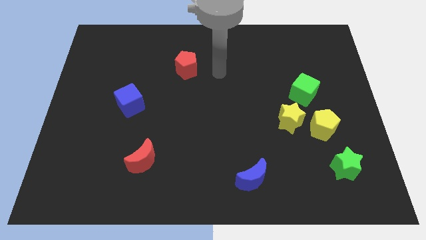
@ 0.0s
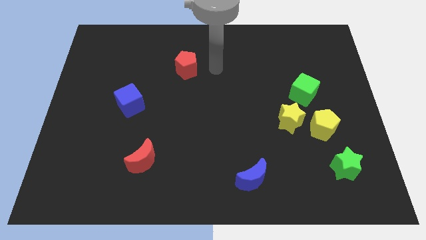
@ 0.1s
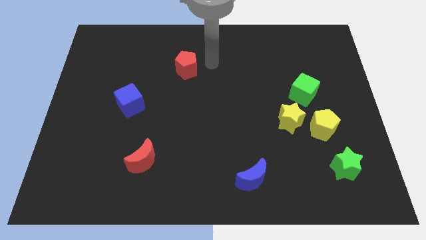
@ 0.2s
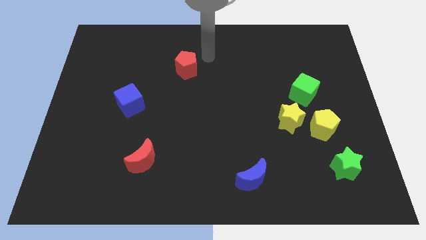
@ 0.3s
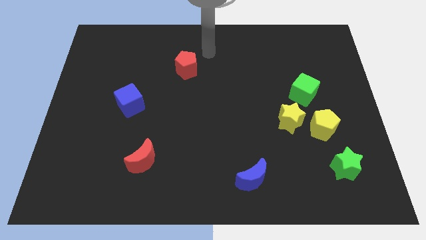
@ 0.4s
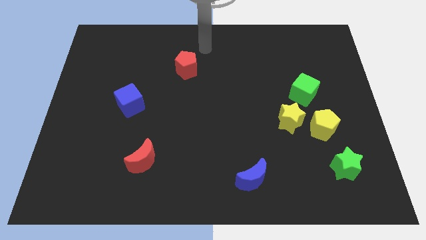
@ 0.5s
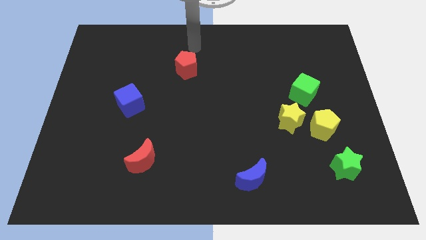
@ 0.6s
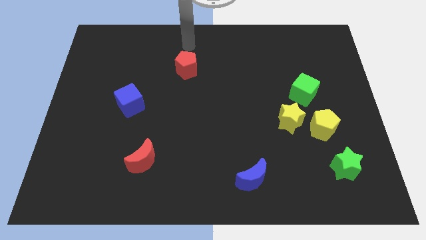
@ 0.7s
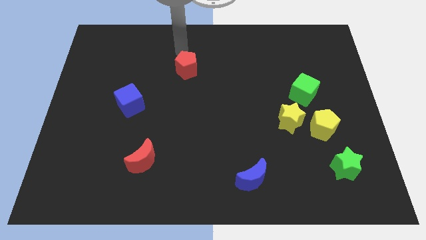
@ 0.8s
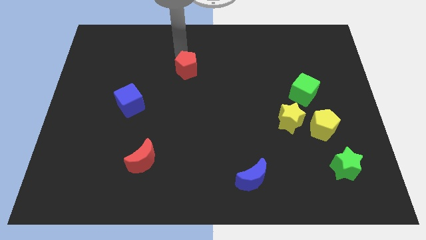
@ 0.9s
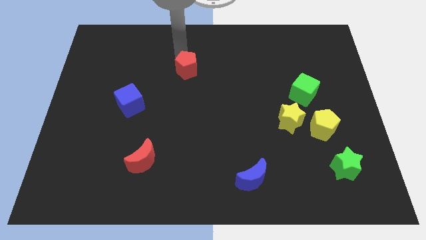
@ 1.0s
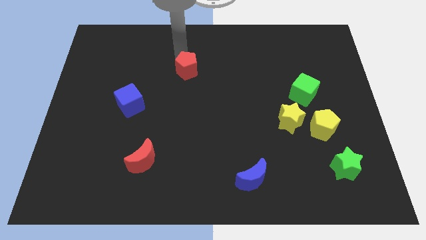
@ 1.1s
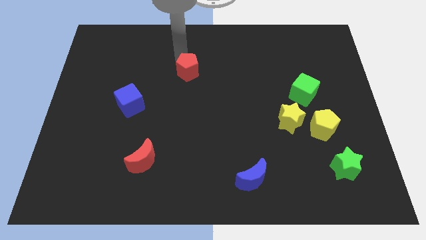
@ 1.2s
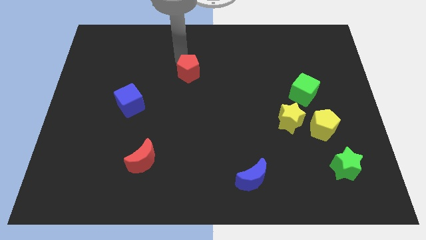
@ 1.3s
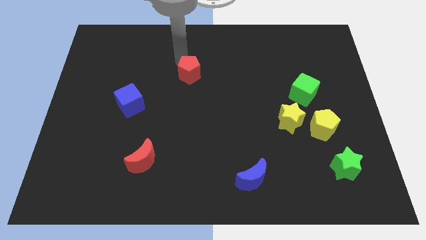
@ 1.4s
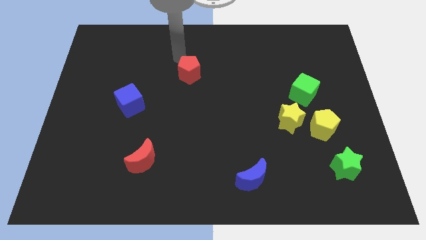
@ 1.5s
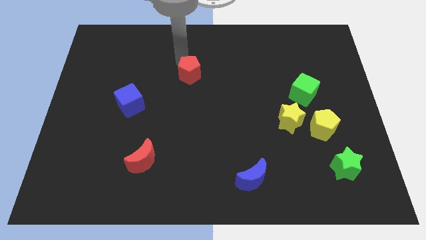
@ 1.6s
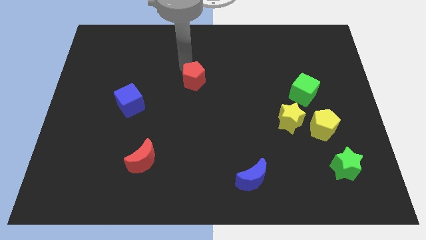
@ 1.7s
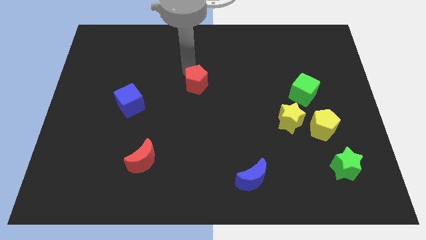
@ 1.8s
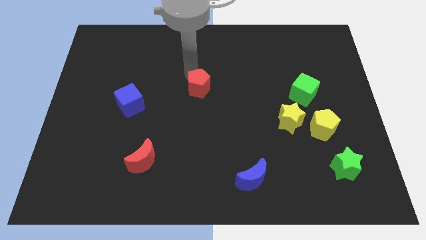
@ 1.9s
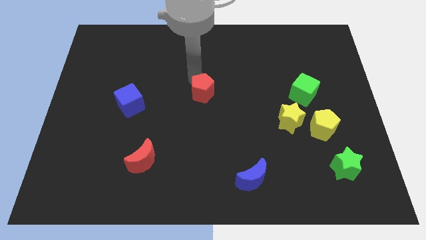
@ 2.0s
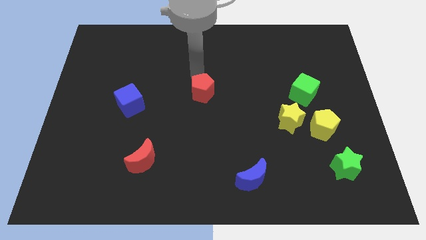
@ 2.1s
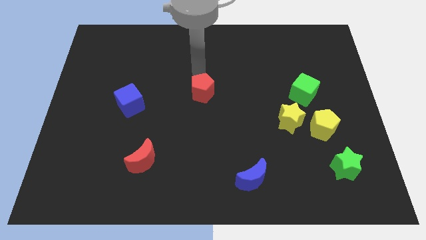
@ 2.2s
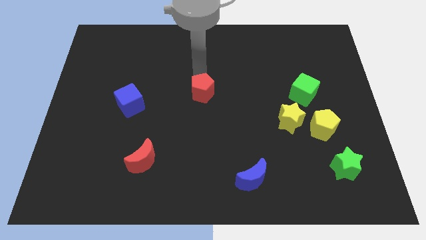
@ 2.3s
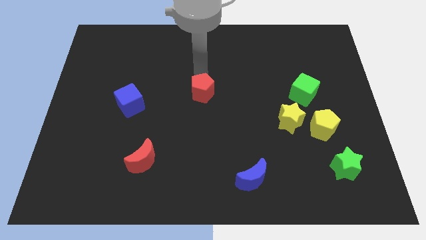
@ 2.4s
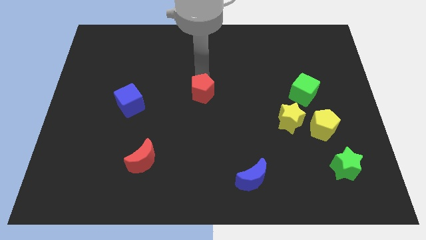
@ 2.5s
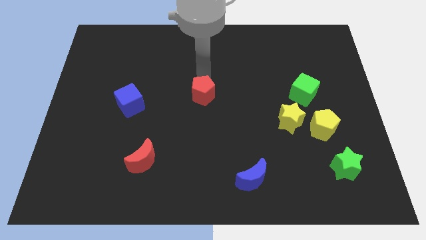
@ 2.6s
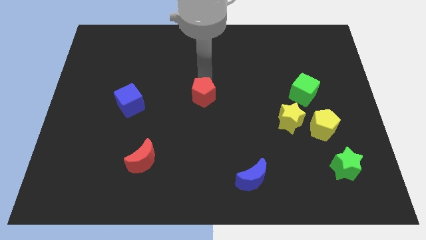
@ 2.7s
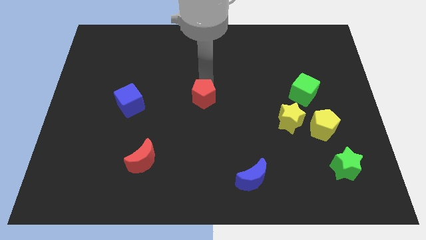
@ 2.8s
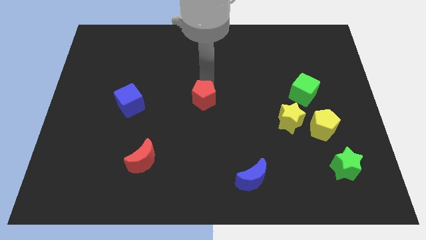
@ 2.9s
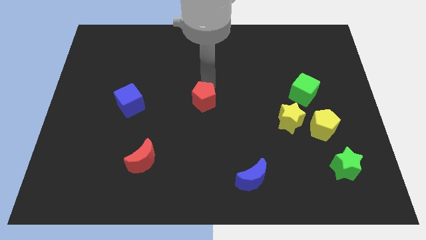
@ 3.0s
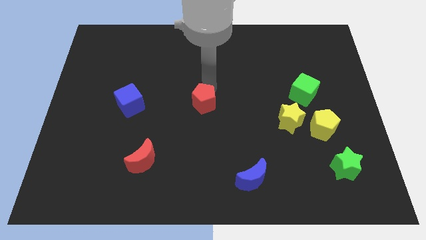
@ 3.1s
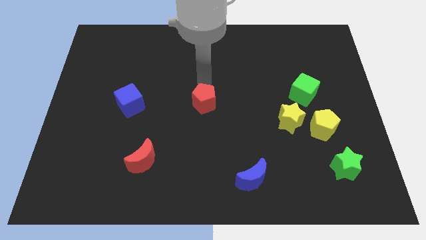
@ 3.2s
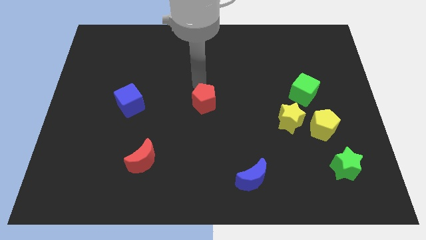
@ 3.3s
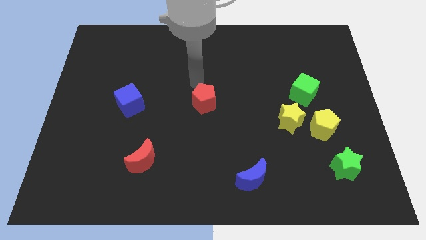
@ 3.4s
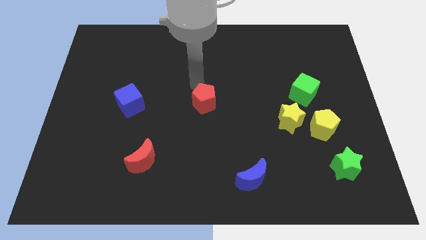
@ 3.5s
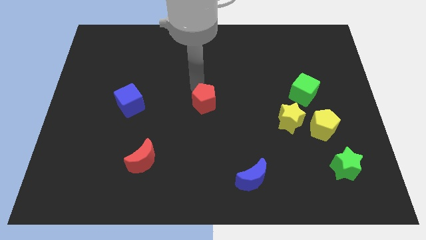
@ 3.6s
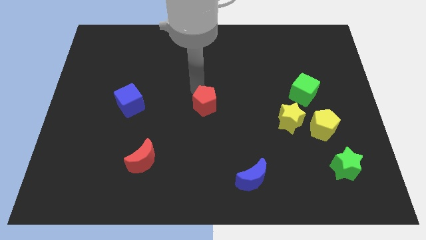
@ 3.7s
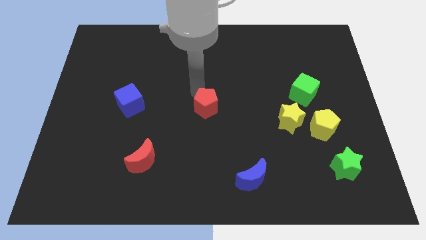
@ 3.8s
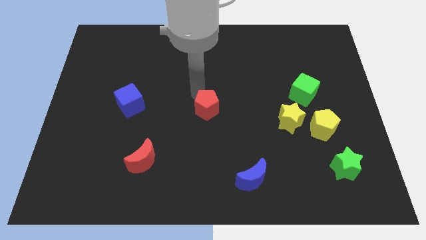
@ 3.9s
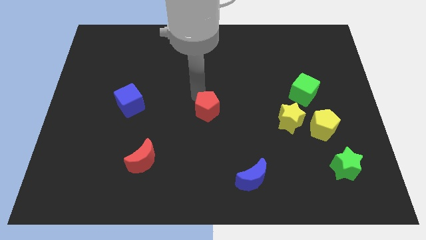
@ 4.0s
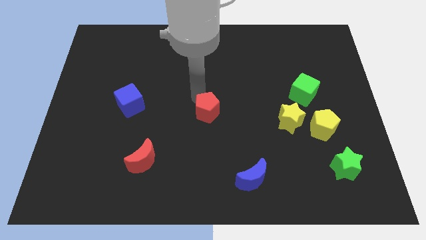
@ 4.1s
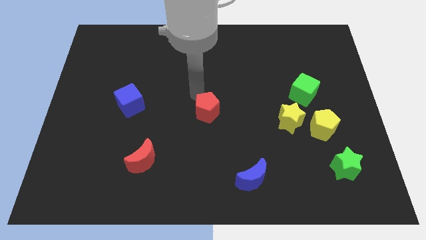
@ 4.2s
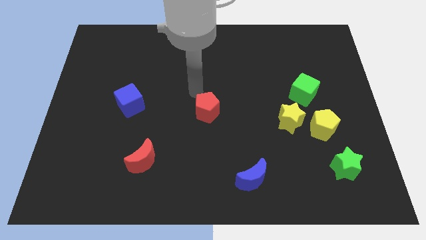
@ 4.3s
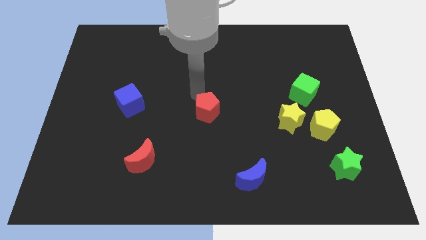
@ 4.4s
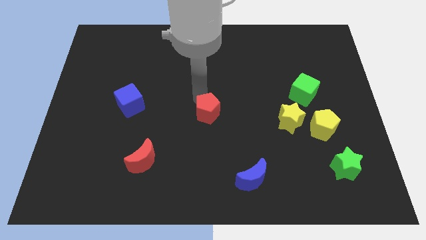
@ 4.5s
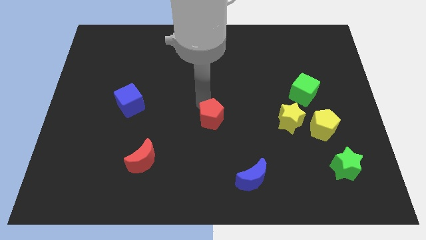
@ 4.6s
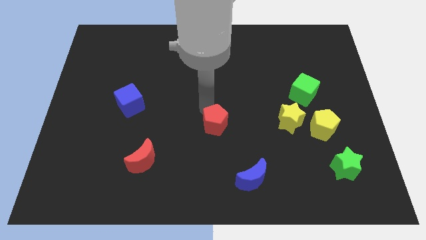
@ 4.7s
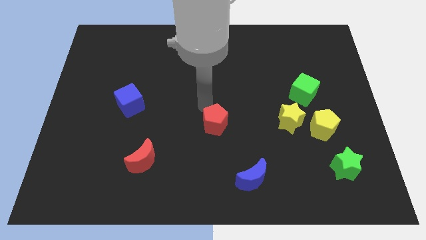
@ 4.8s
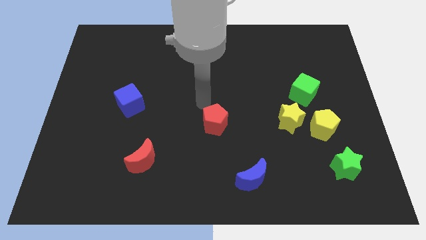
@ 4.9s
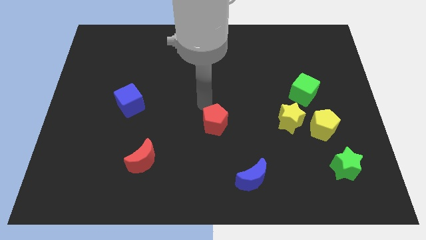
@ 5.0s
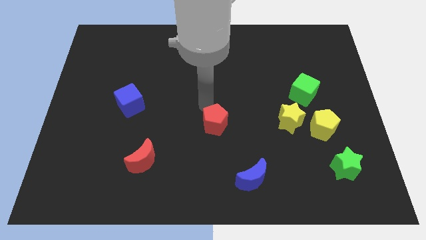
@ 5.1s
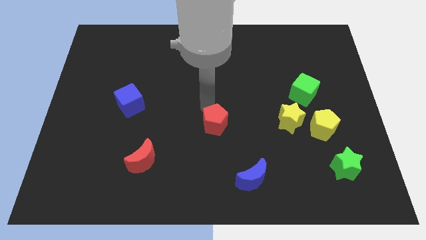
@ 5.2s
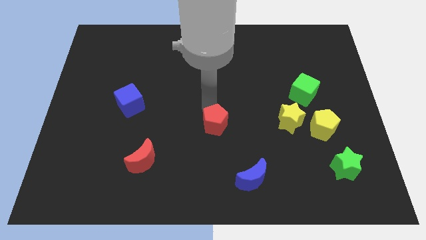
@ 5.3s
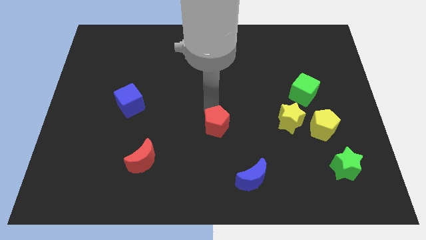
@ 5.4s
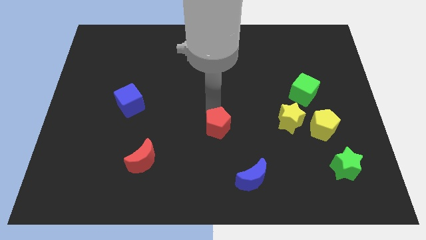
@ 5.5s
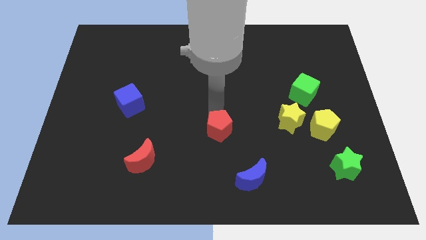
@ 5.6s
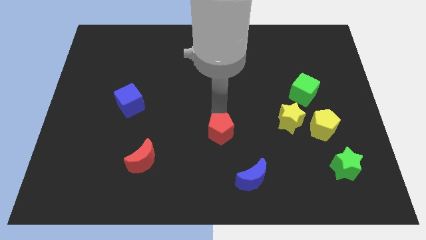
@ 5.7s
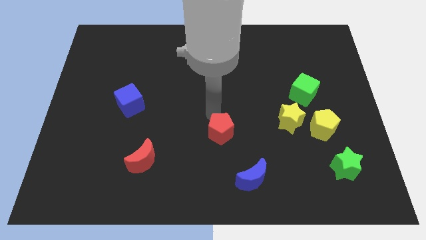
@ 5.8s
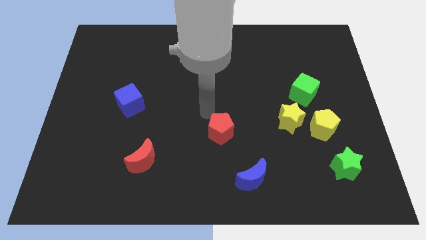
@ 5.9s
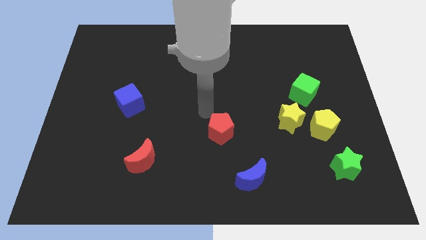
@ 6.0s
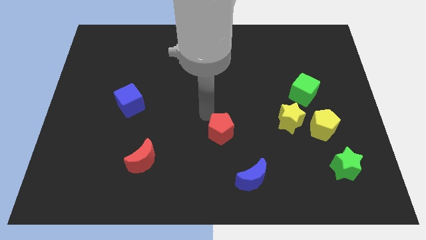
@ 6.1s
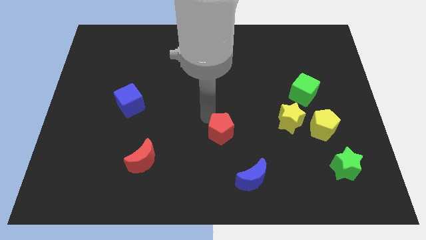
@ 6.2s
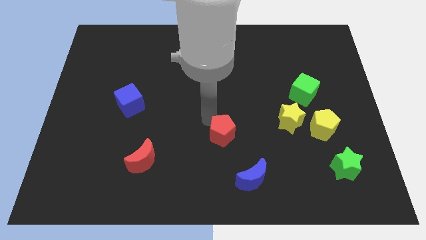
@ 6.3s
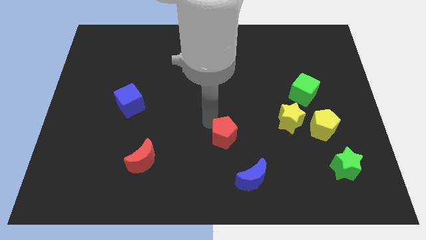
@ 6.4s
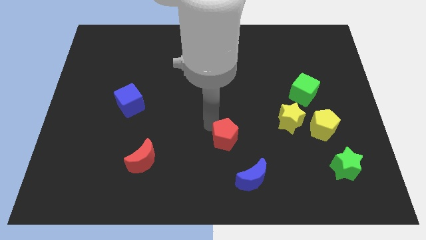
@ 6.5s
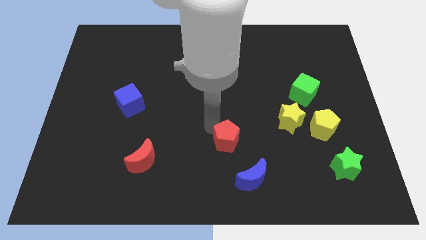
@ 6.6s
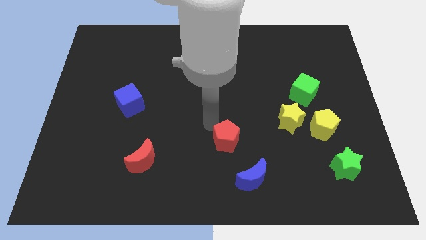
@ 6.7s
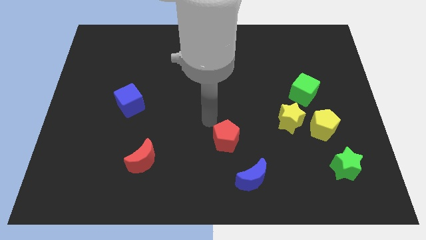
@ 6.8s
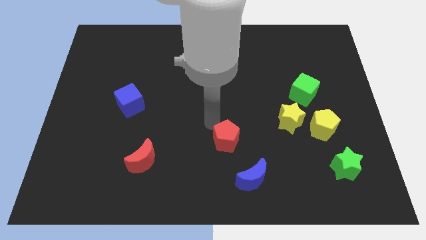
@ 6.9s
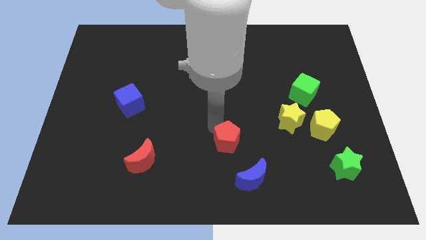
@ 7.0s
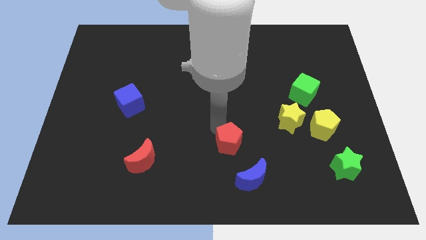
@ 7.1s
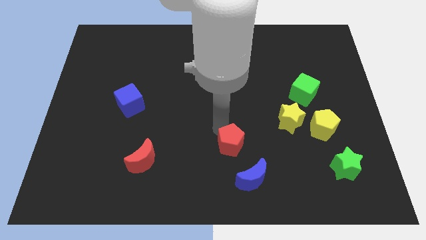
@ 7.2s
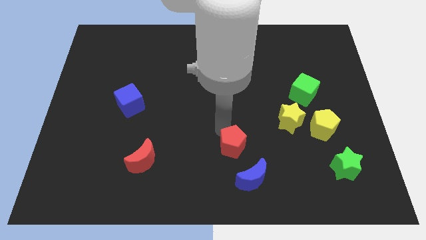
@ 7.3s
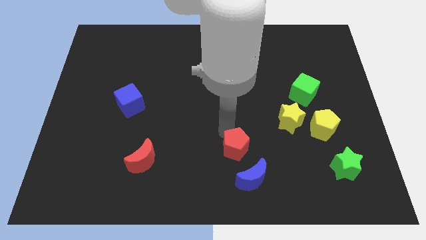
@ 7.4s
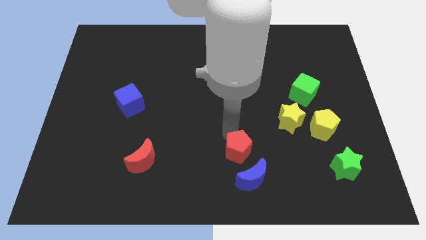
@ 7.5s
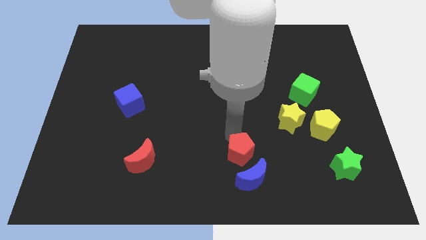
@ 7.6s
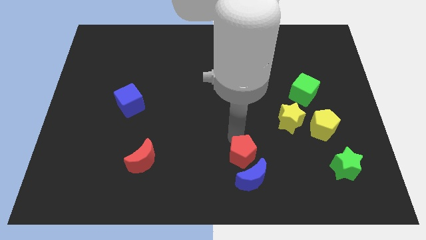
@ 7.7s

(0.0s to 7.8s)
move the red pentagon next to the blue moon
